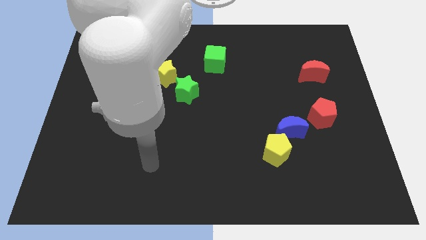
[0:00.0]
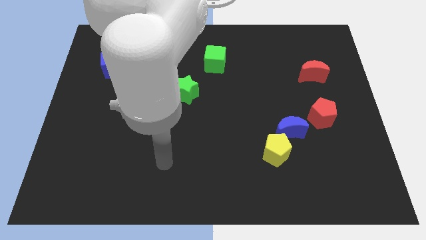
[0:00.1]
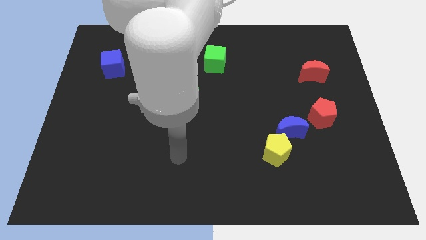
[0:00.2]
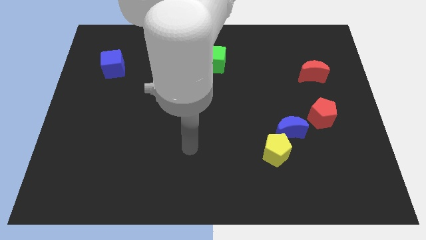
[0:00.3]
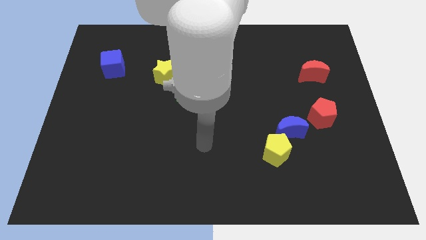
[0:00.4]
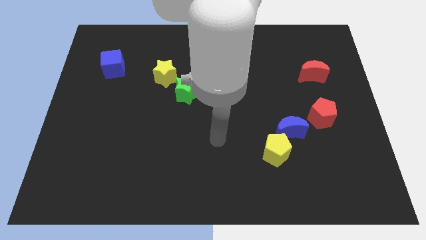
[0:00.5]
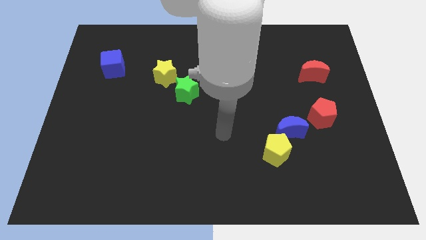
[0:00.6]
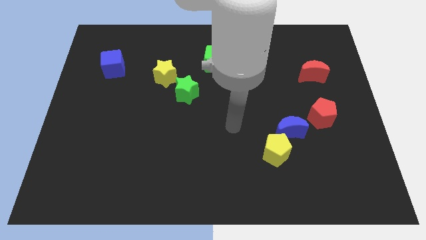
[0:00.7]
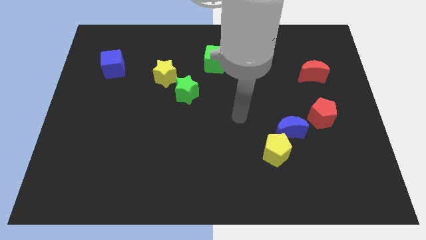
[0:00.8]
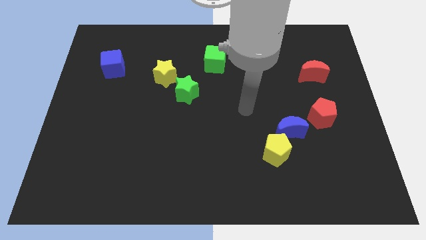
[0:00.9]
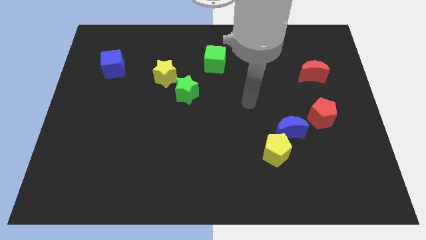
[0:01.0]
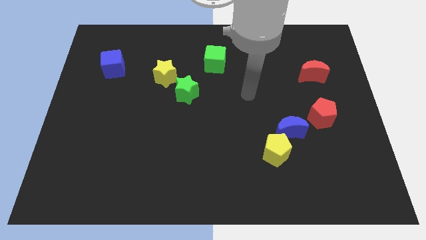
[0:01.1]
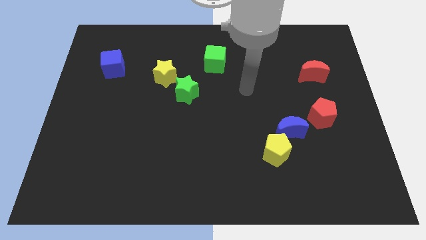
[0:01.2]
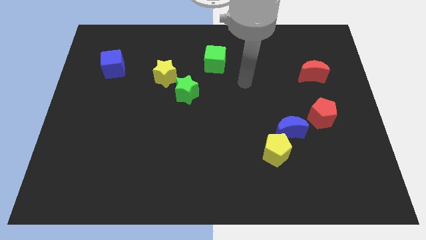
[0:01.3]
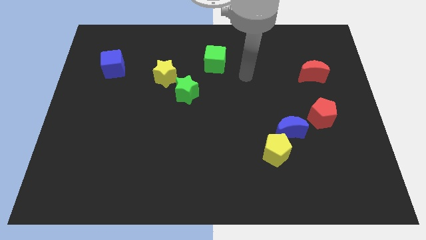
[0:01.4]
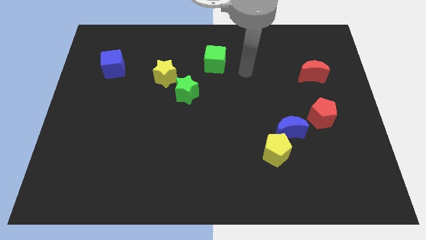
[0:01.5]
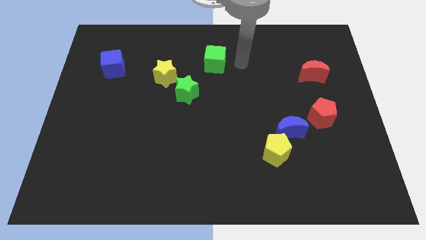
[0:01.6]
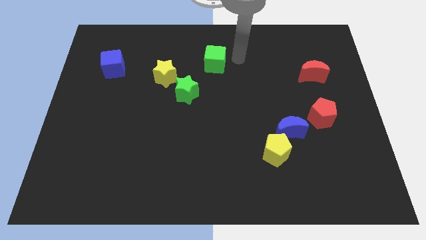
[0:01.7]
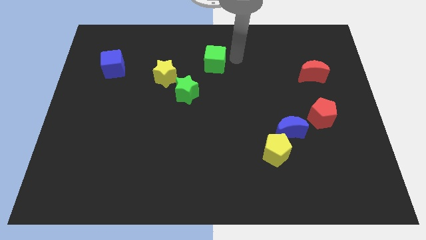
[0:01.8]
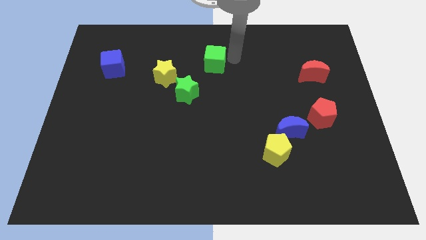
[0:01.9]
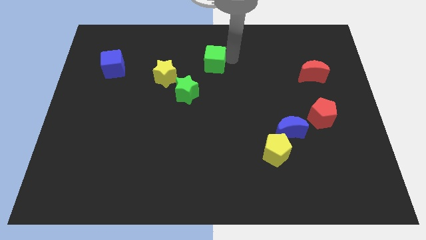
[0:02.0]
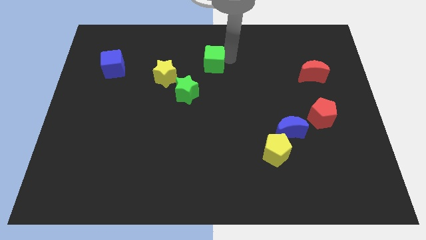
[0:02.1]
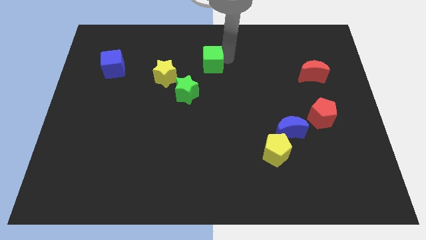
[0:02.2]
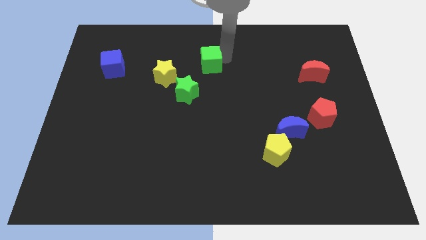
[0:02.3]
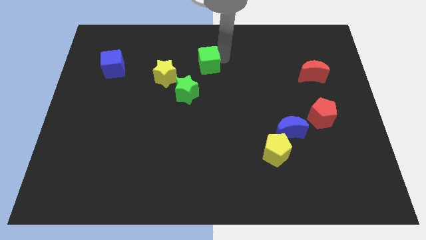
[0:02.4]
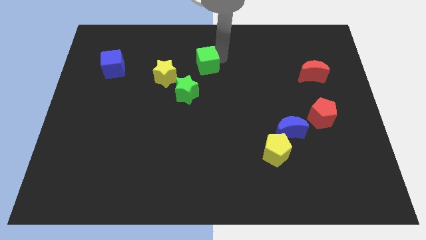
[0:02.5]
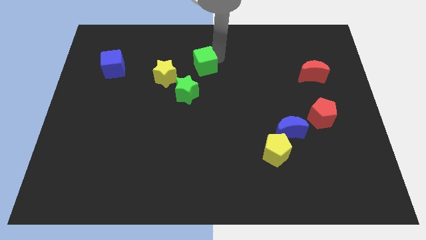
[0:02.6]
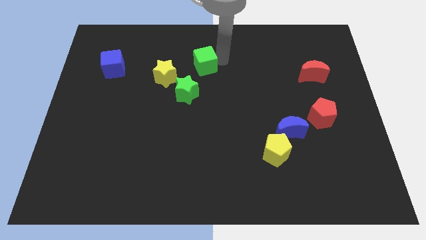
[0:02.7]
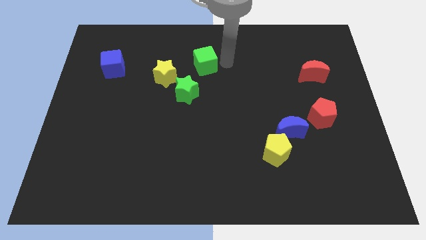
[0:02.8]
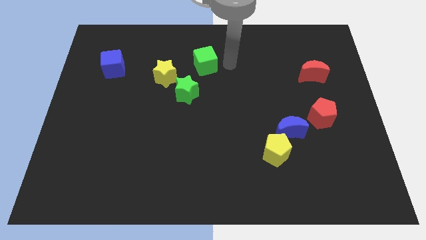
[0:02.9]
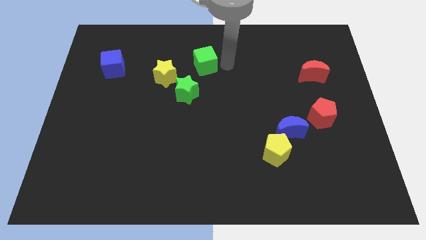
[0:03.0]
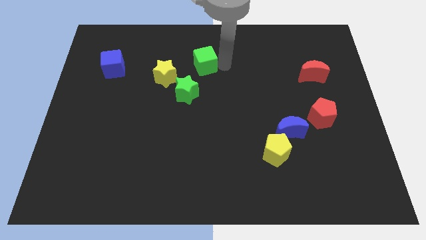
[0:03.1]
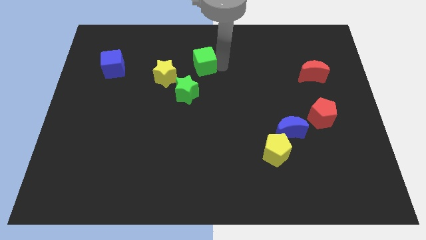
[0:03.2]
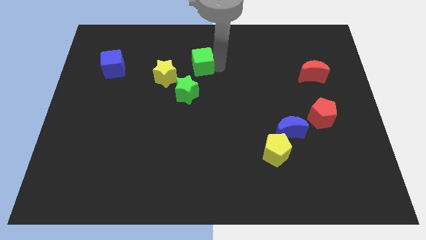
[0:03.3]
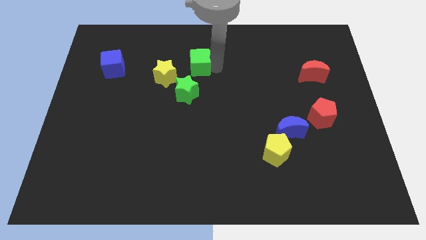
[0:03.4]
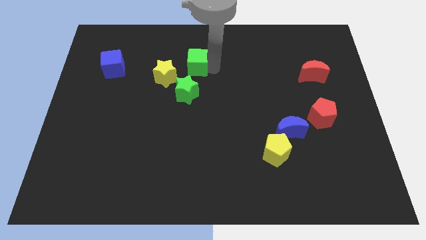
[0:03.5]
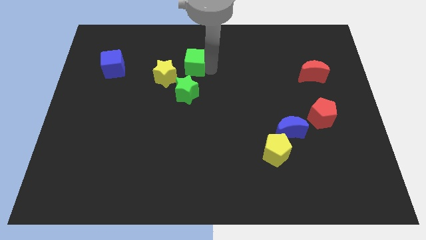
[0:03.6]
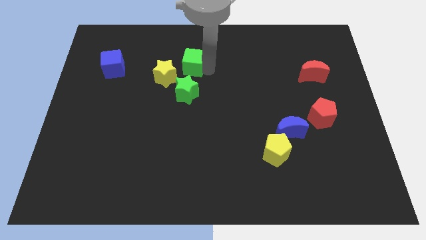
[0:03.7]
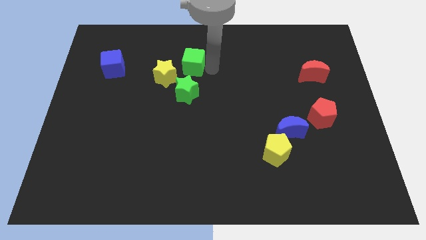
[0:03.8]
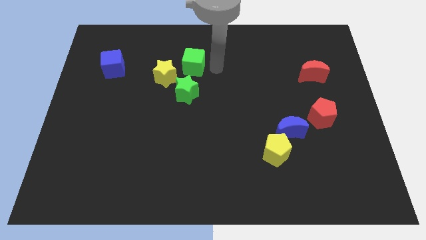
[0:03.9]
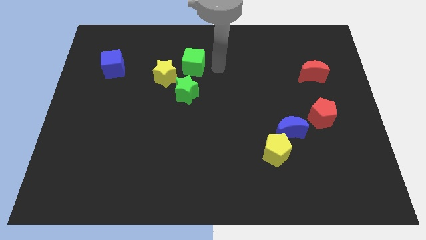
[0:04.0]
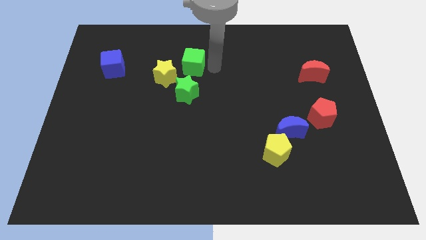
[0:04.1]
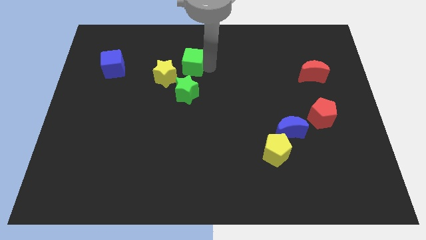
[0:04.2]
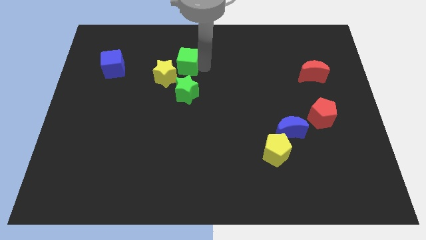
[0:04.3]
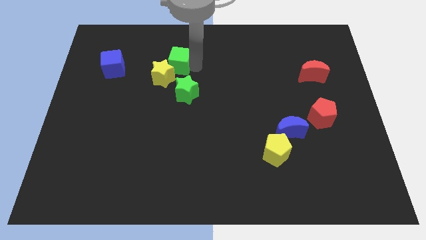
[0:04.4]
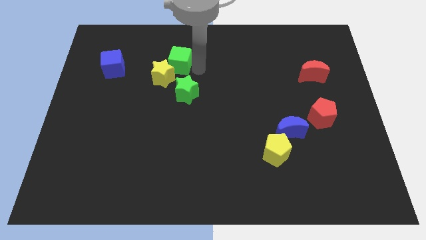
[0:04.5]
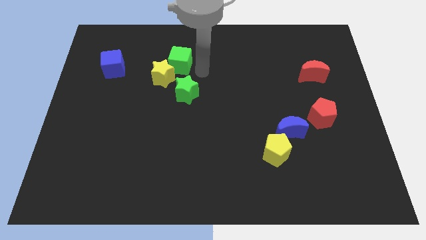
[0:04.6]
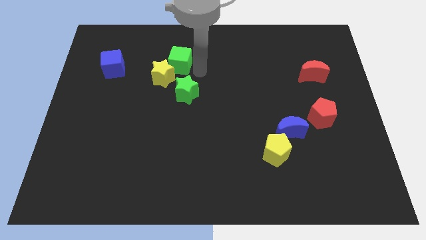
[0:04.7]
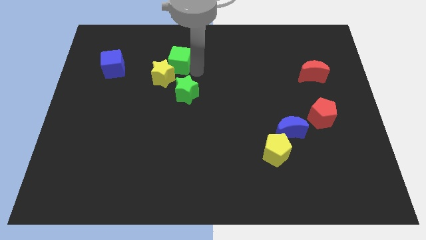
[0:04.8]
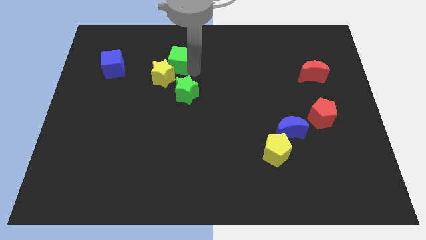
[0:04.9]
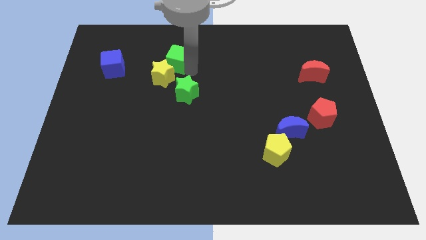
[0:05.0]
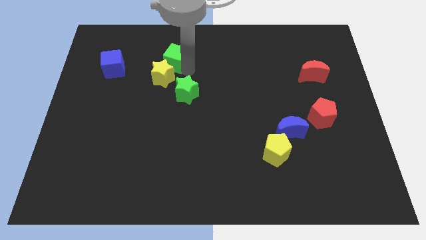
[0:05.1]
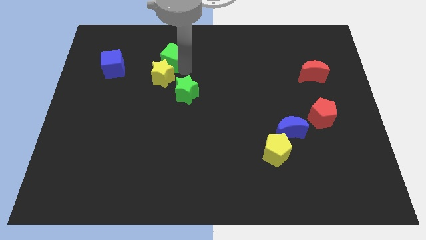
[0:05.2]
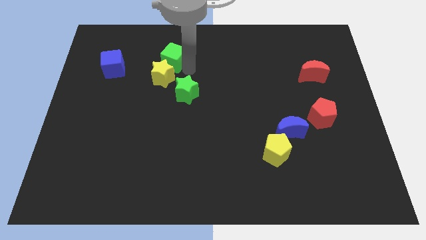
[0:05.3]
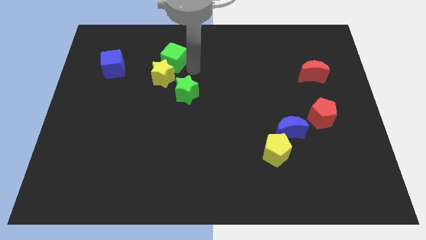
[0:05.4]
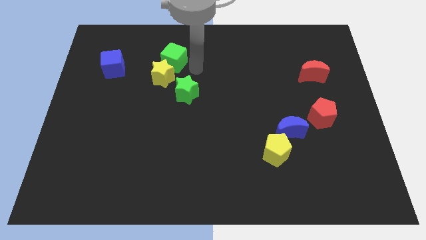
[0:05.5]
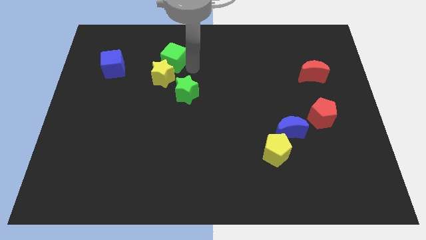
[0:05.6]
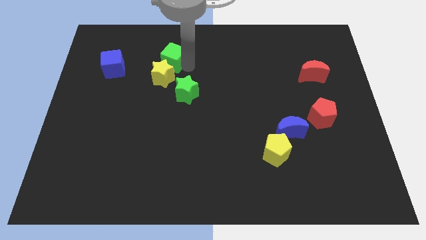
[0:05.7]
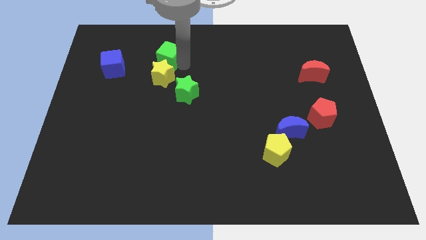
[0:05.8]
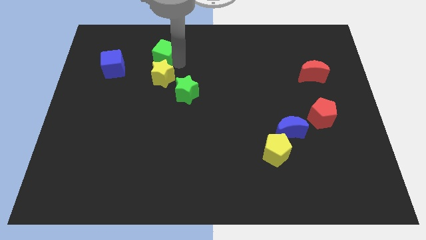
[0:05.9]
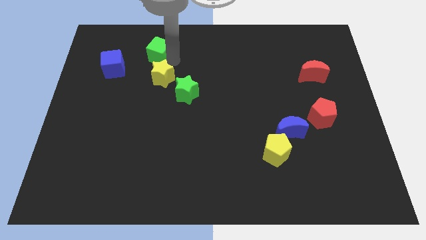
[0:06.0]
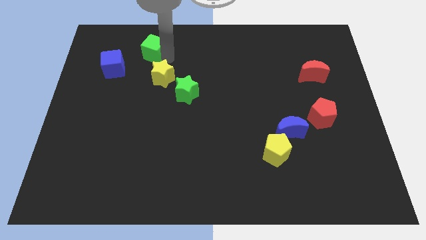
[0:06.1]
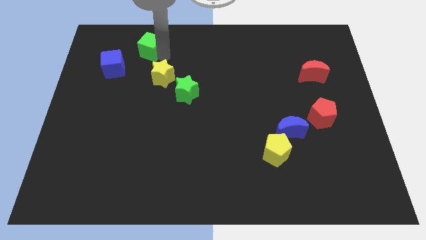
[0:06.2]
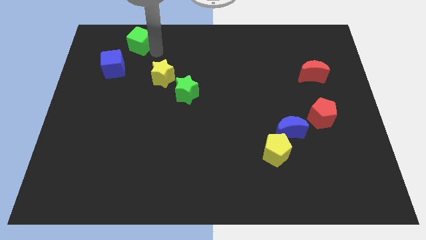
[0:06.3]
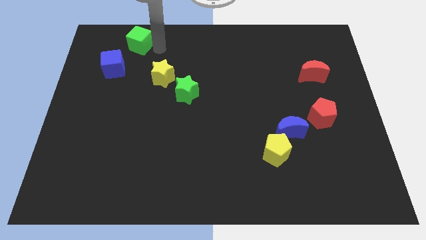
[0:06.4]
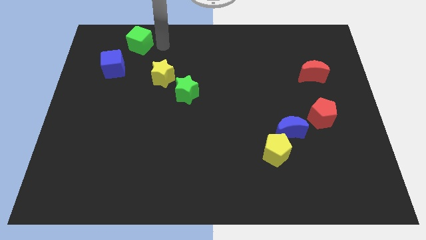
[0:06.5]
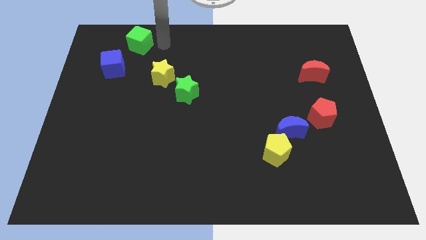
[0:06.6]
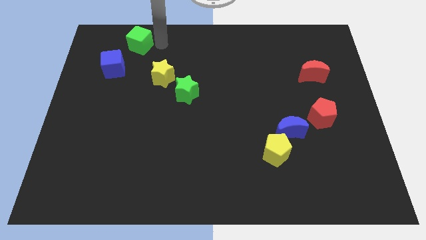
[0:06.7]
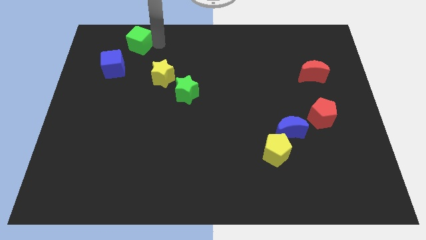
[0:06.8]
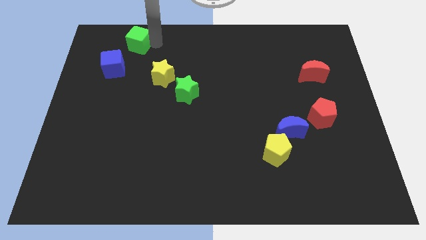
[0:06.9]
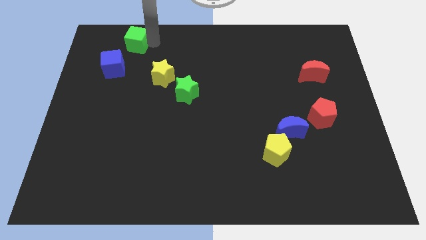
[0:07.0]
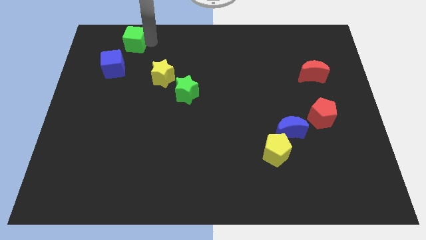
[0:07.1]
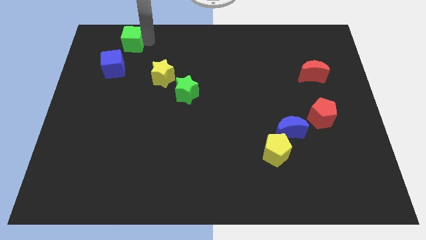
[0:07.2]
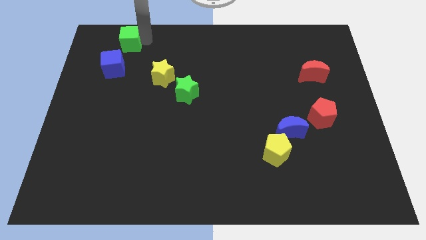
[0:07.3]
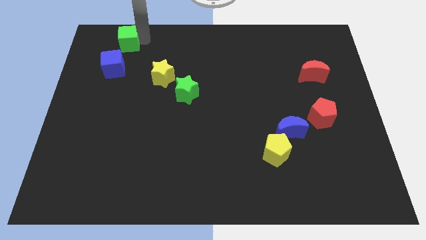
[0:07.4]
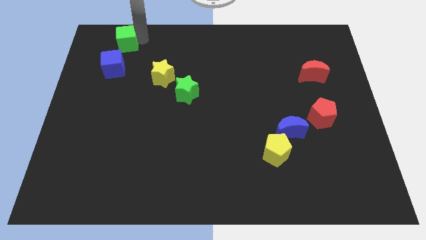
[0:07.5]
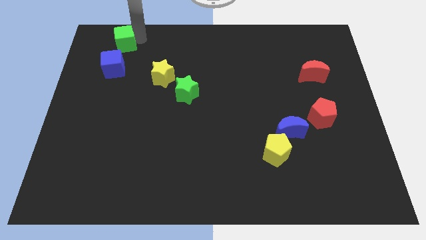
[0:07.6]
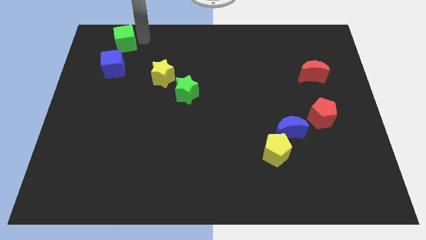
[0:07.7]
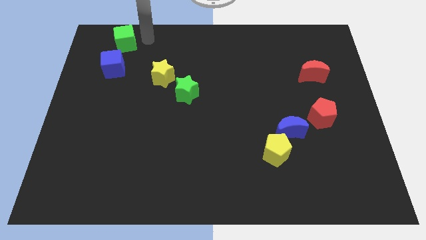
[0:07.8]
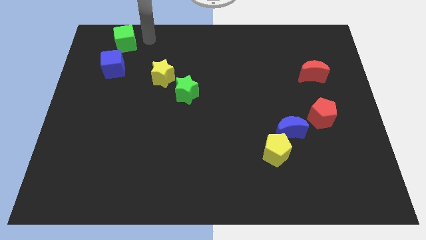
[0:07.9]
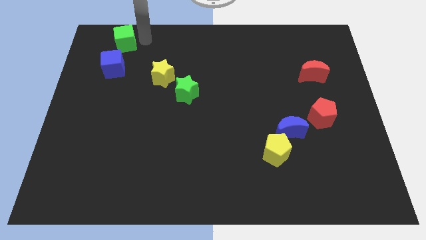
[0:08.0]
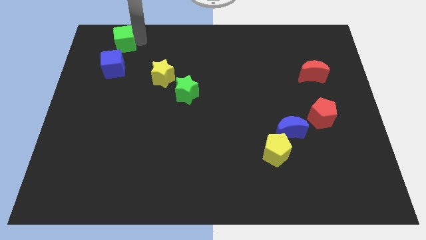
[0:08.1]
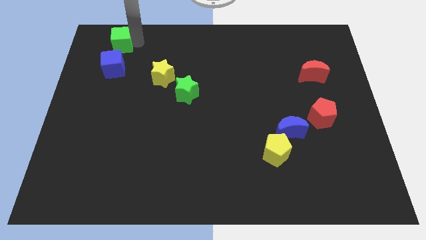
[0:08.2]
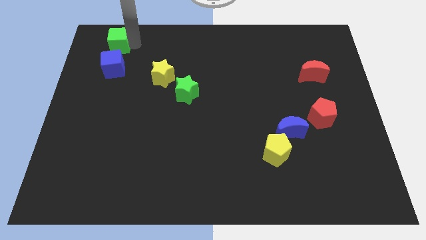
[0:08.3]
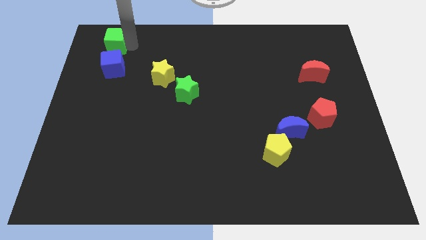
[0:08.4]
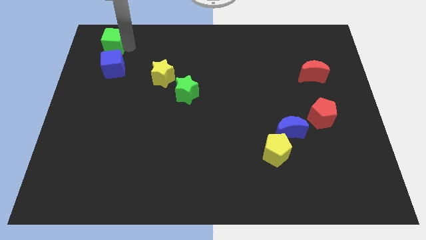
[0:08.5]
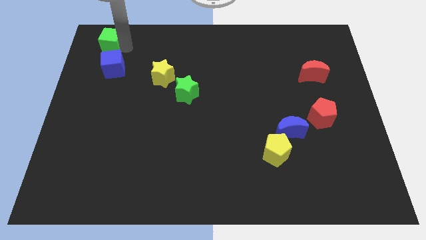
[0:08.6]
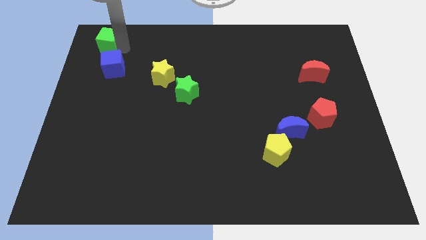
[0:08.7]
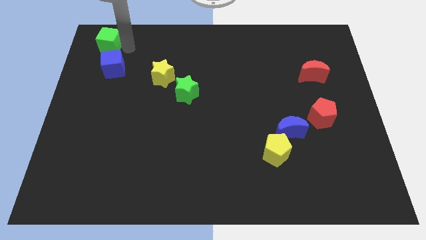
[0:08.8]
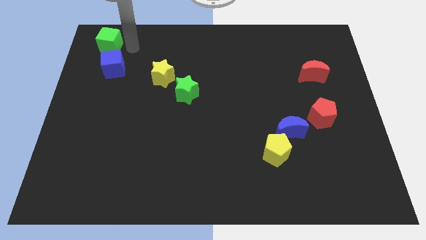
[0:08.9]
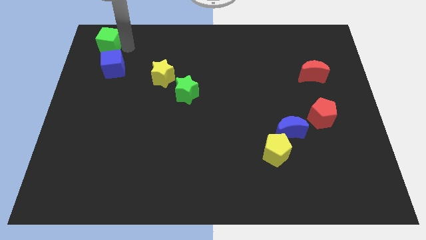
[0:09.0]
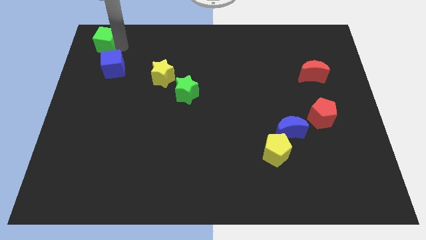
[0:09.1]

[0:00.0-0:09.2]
put the green cube to the top left of the board
